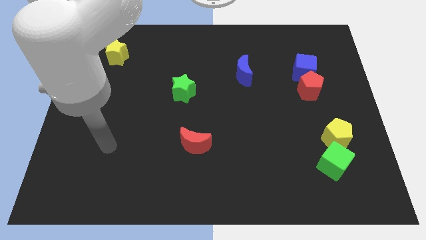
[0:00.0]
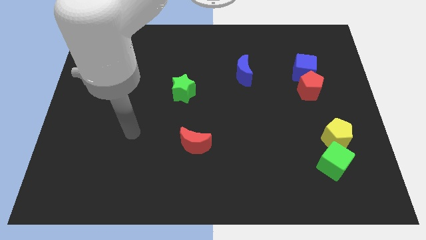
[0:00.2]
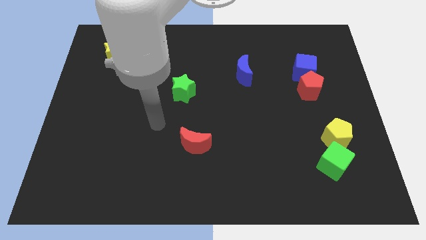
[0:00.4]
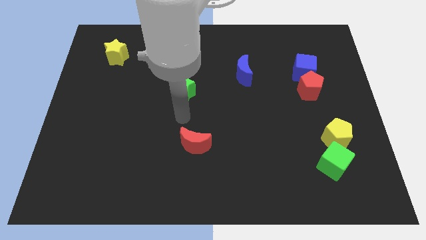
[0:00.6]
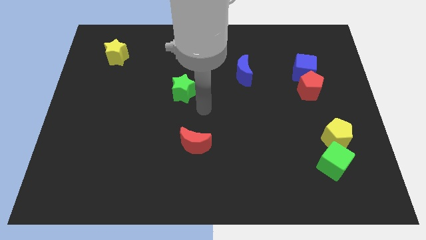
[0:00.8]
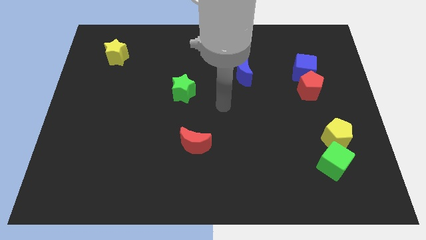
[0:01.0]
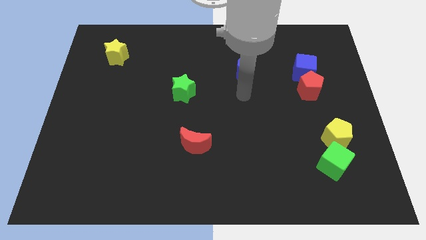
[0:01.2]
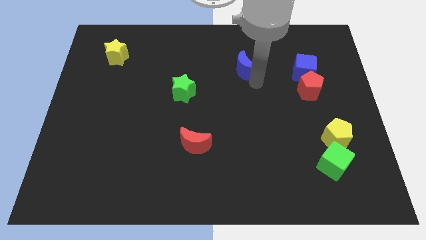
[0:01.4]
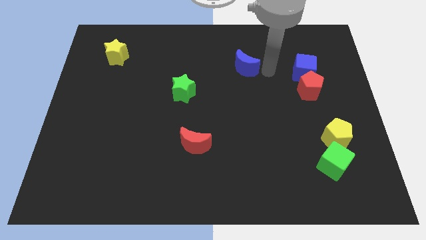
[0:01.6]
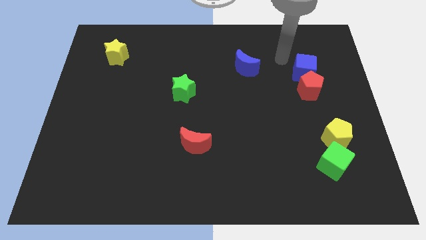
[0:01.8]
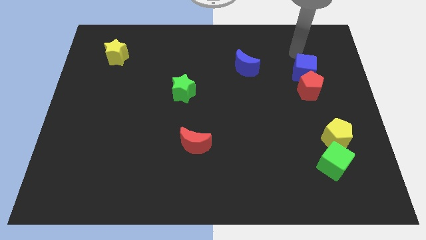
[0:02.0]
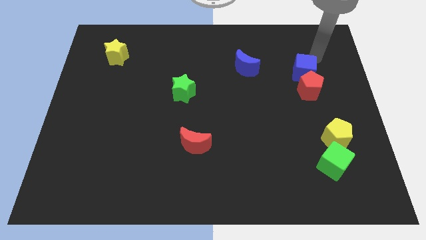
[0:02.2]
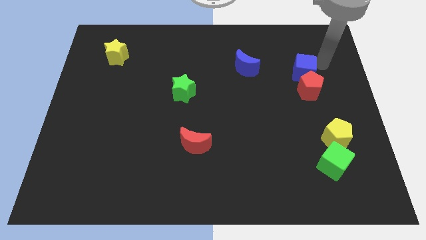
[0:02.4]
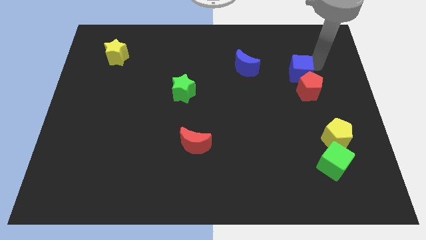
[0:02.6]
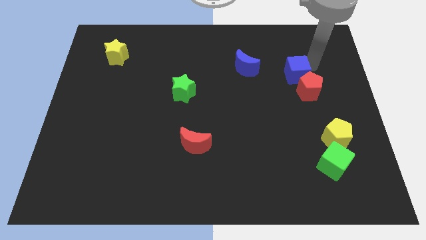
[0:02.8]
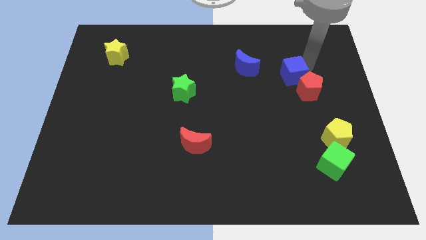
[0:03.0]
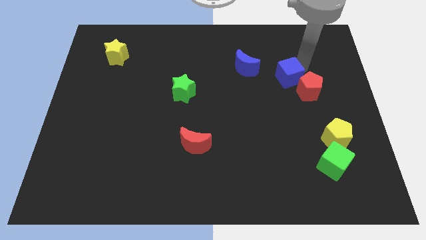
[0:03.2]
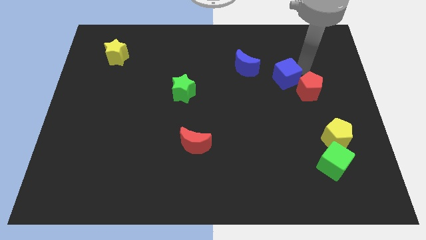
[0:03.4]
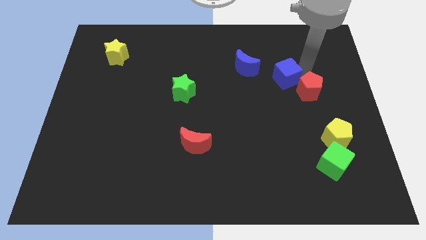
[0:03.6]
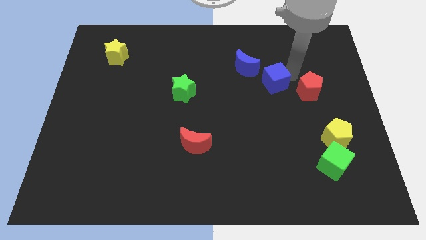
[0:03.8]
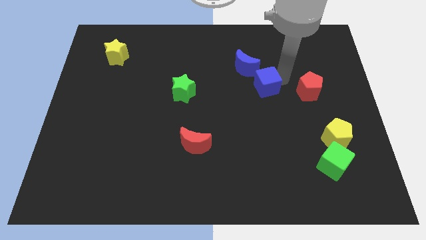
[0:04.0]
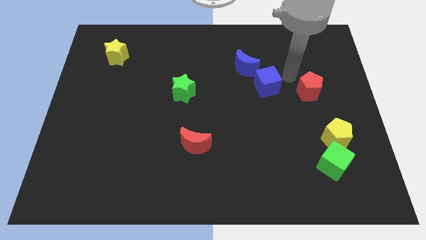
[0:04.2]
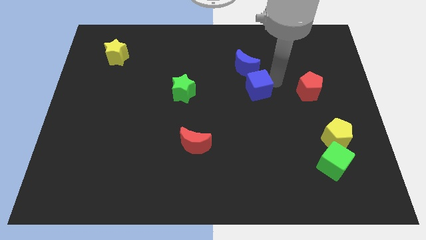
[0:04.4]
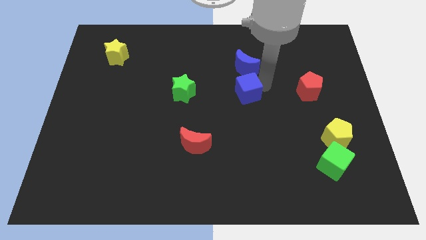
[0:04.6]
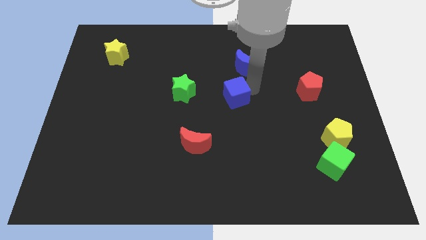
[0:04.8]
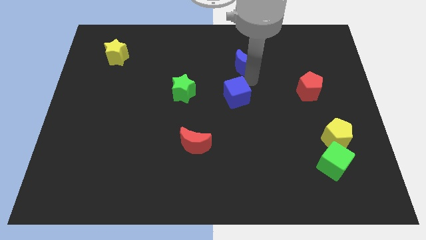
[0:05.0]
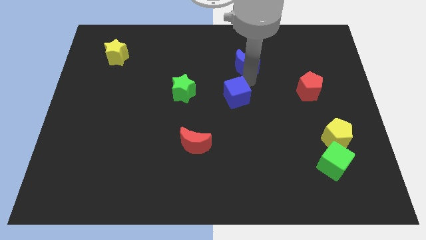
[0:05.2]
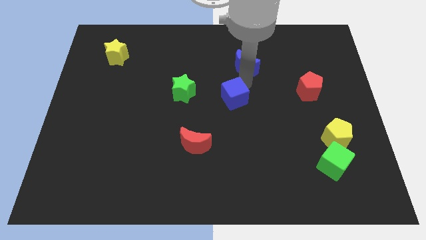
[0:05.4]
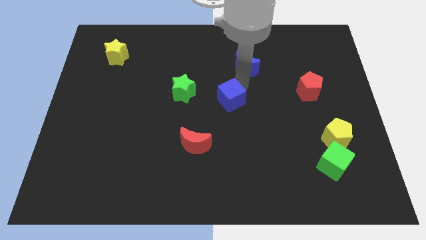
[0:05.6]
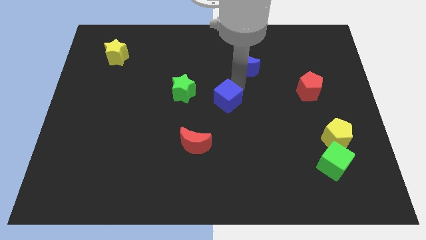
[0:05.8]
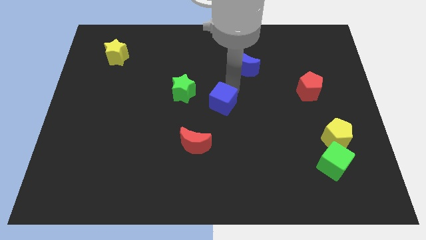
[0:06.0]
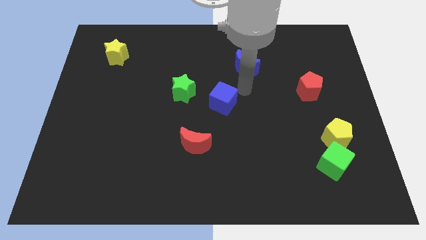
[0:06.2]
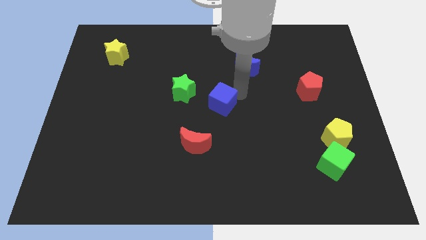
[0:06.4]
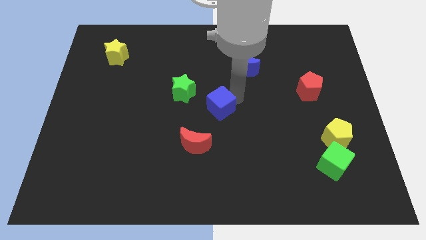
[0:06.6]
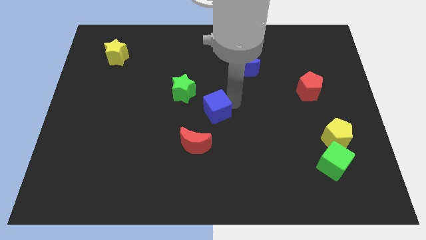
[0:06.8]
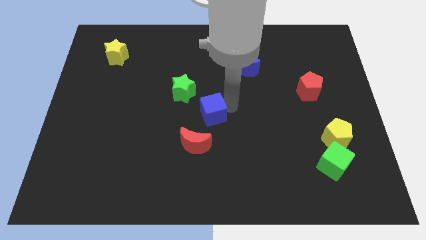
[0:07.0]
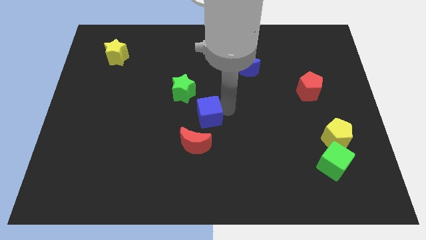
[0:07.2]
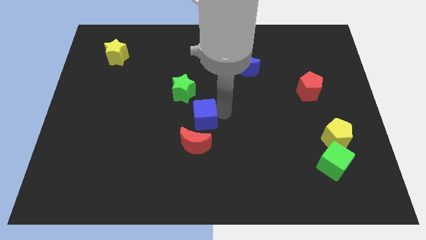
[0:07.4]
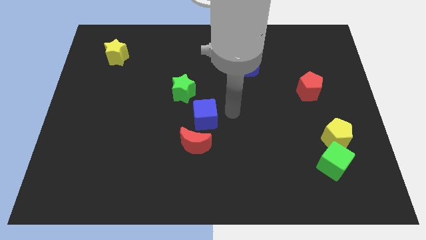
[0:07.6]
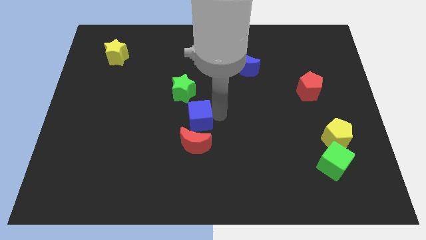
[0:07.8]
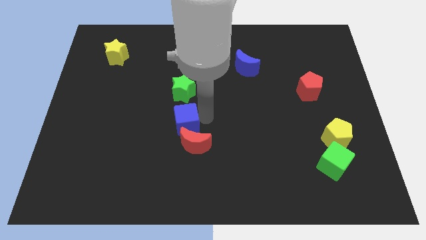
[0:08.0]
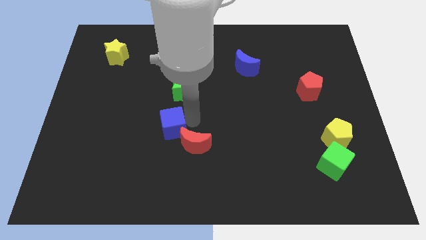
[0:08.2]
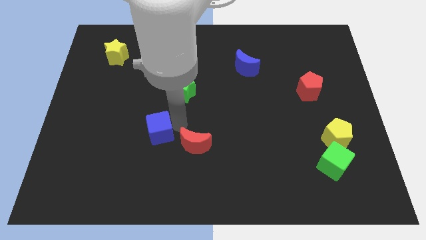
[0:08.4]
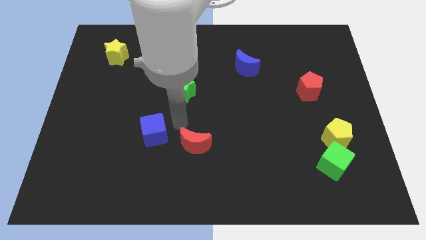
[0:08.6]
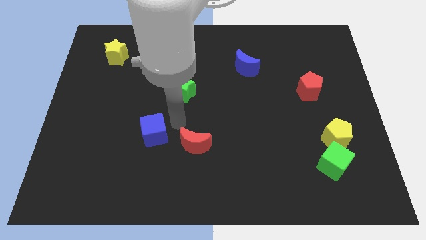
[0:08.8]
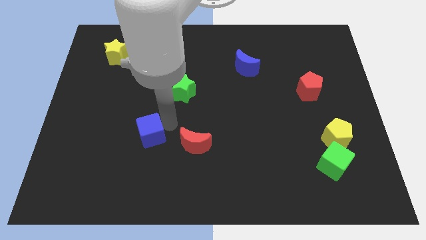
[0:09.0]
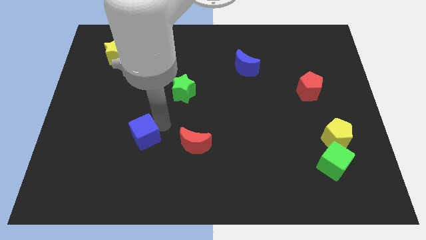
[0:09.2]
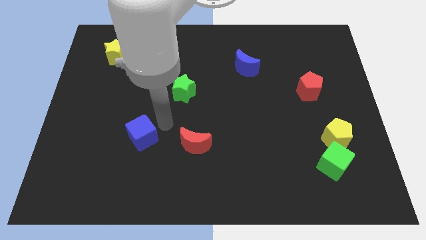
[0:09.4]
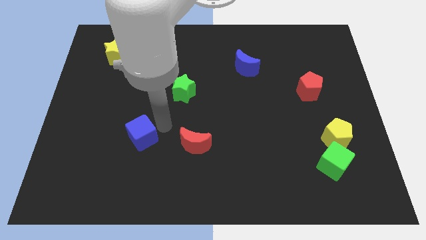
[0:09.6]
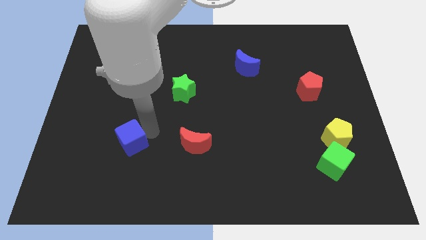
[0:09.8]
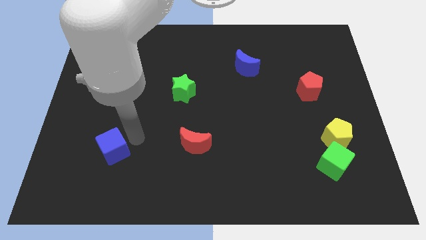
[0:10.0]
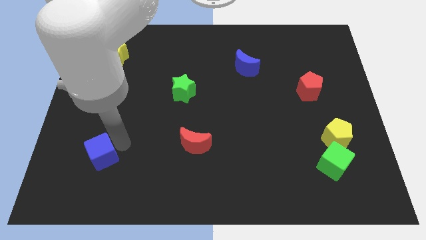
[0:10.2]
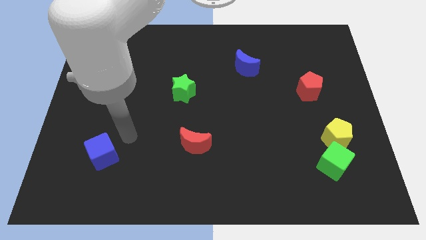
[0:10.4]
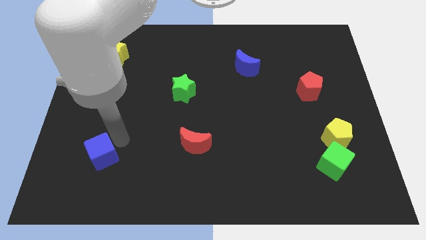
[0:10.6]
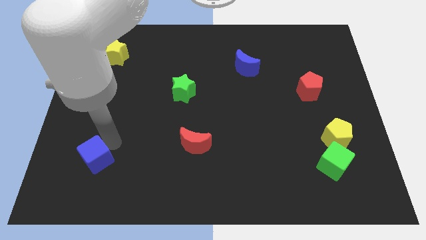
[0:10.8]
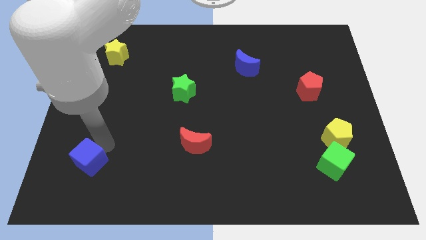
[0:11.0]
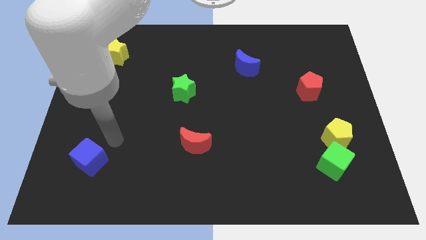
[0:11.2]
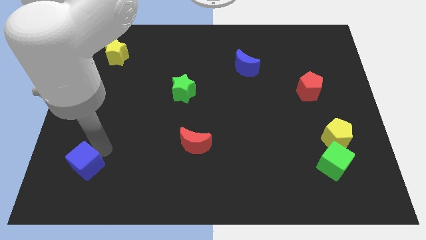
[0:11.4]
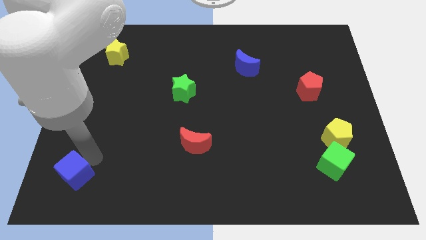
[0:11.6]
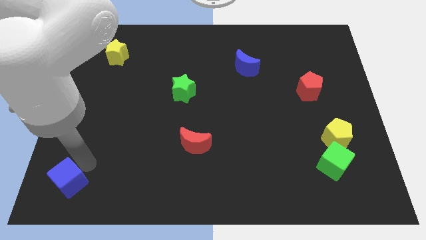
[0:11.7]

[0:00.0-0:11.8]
move the blue cube to the bottom left of the board
